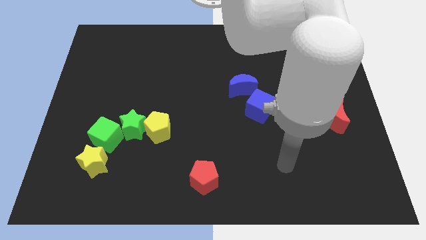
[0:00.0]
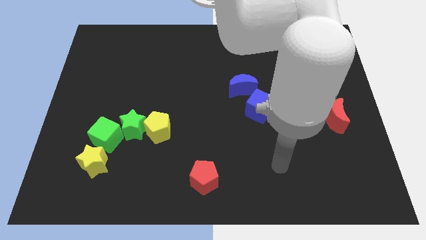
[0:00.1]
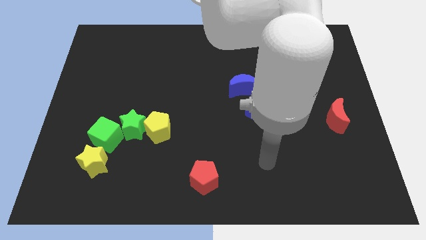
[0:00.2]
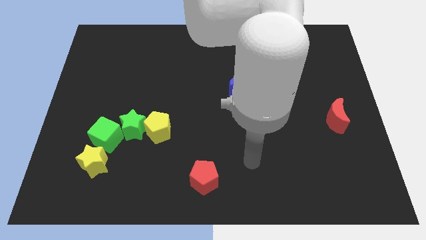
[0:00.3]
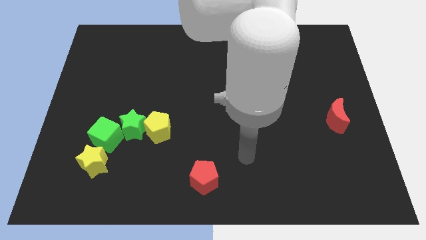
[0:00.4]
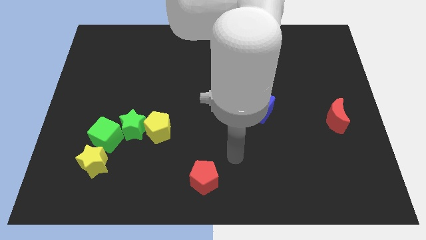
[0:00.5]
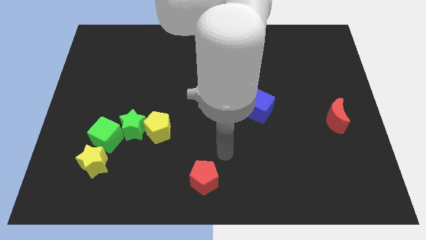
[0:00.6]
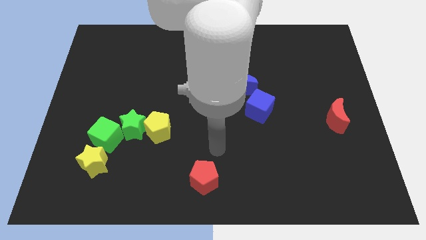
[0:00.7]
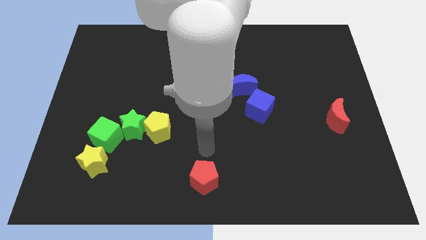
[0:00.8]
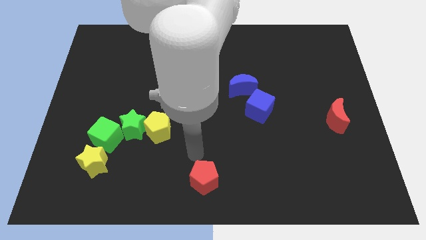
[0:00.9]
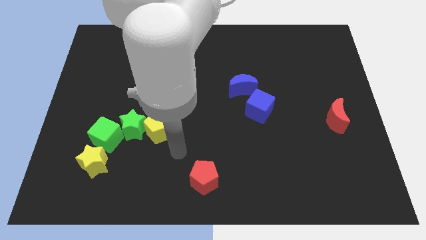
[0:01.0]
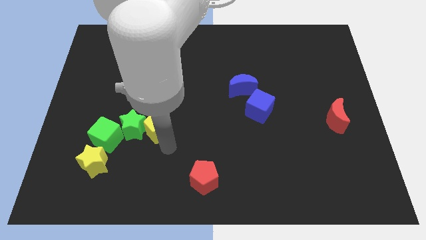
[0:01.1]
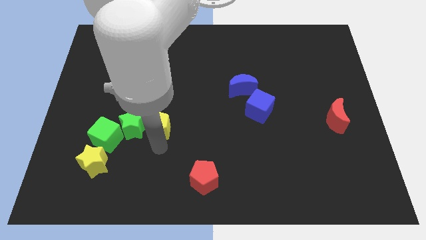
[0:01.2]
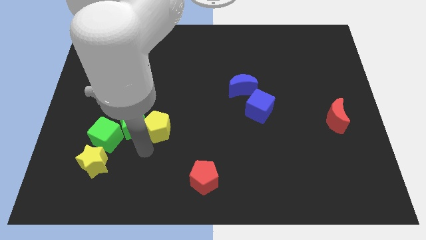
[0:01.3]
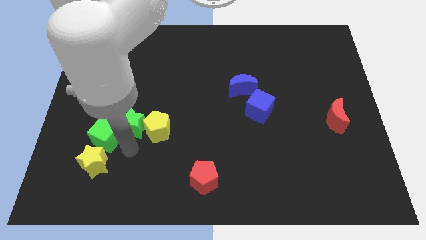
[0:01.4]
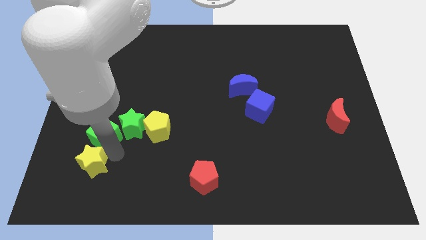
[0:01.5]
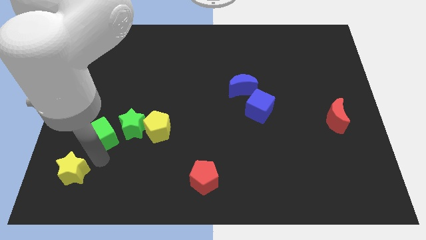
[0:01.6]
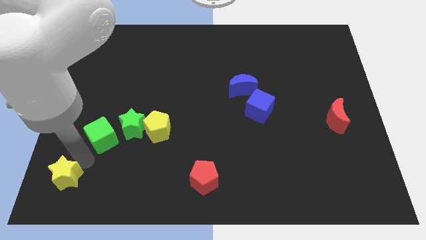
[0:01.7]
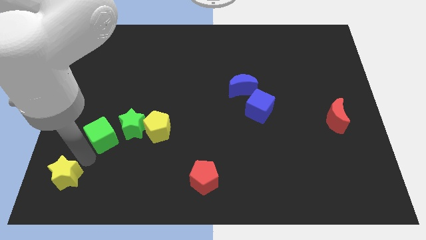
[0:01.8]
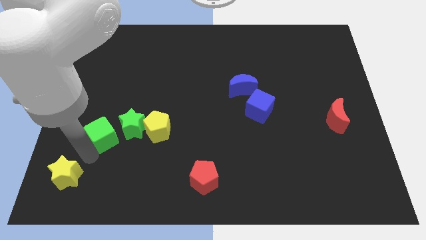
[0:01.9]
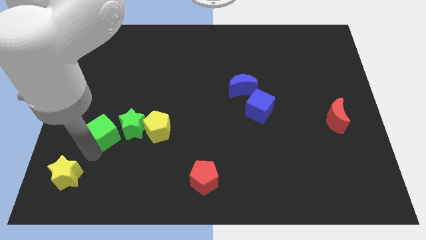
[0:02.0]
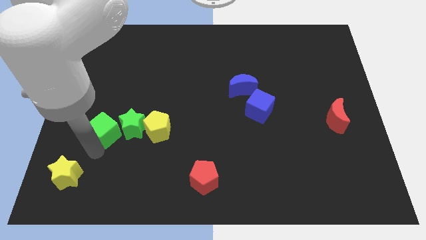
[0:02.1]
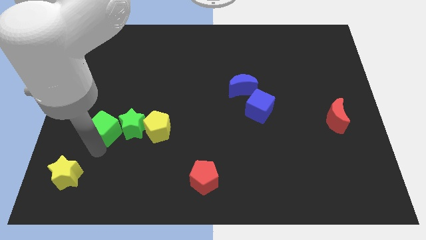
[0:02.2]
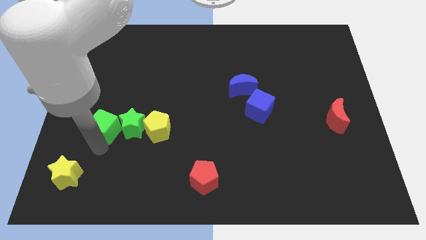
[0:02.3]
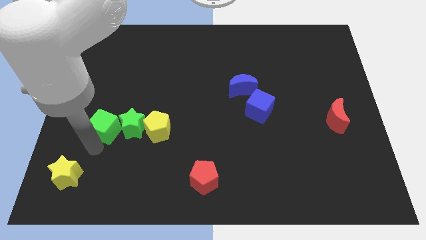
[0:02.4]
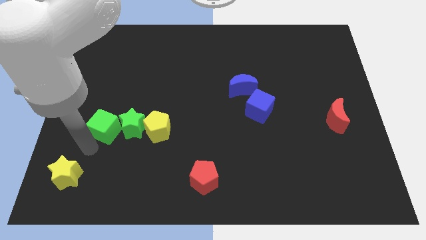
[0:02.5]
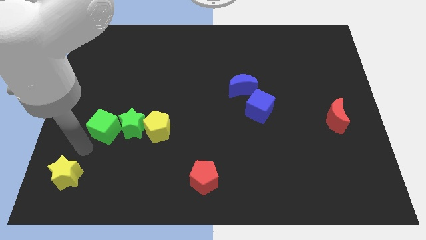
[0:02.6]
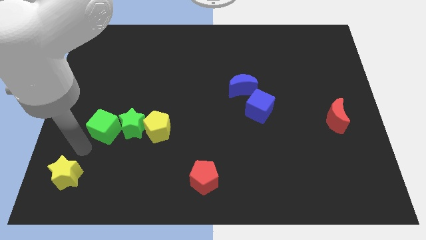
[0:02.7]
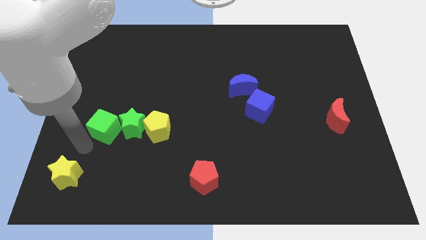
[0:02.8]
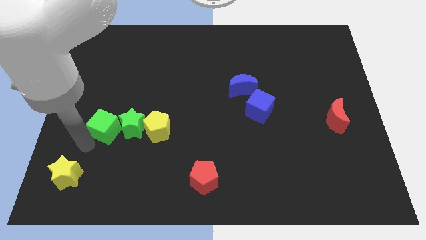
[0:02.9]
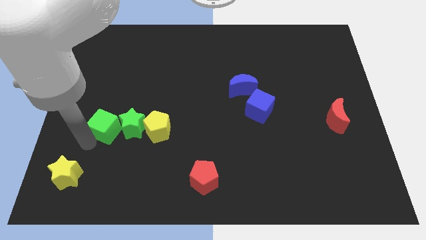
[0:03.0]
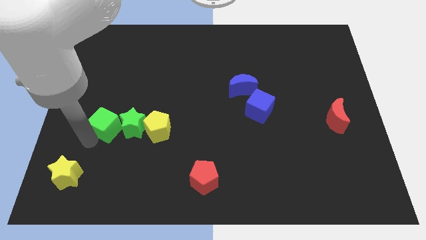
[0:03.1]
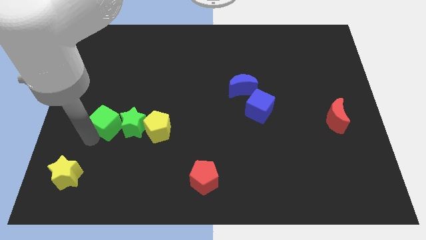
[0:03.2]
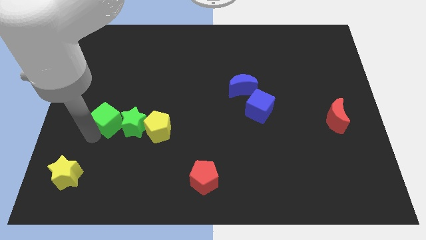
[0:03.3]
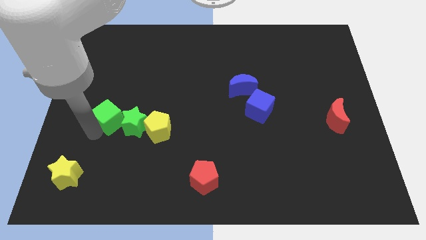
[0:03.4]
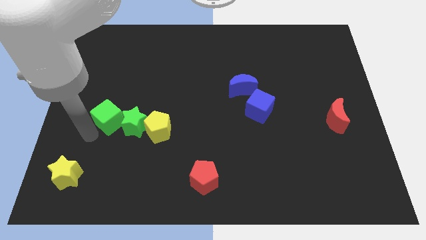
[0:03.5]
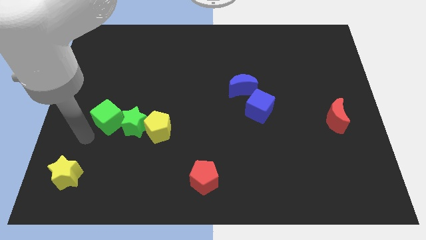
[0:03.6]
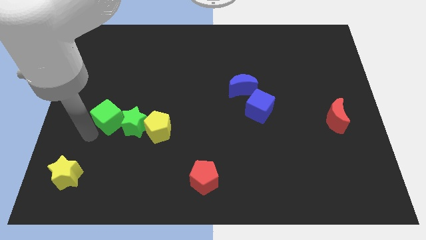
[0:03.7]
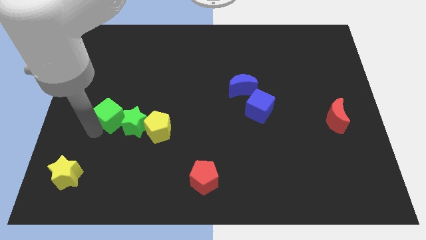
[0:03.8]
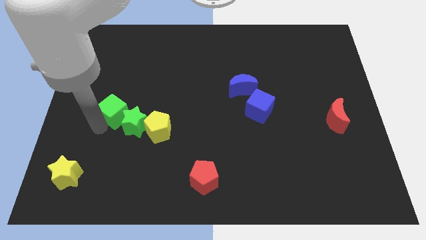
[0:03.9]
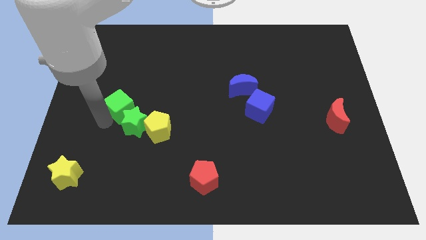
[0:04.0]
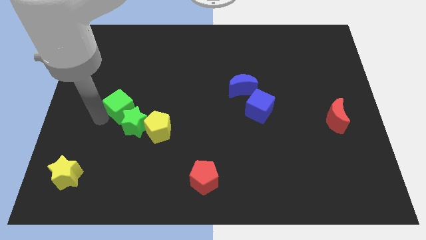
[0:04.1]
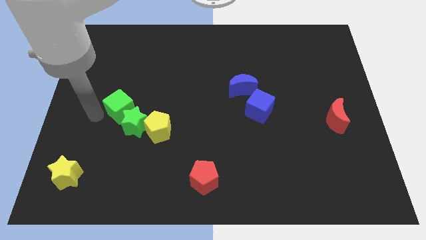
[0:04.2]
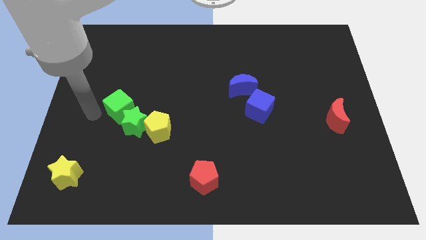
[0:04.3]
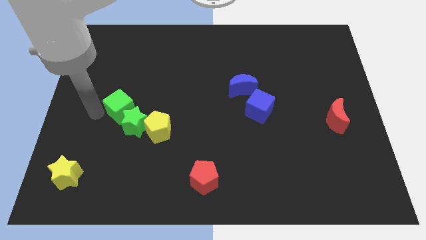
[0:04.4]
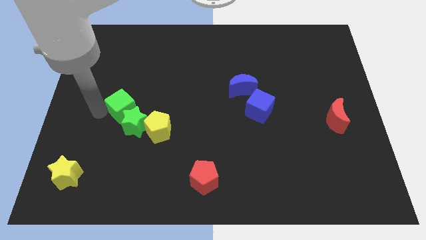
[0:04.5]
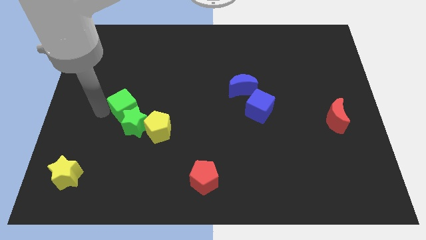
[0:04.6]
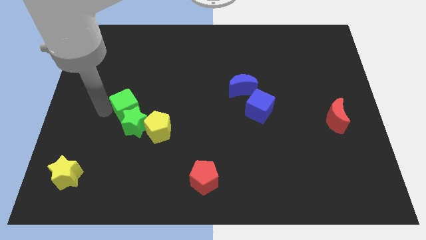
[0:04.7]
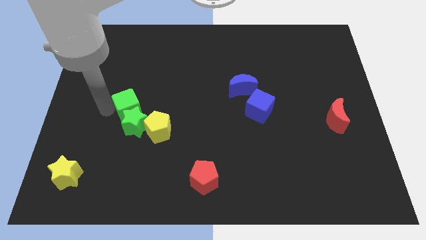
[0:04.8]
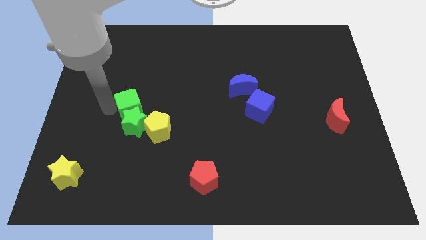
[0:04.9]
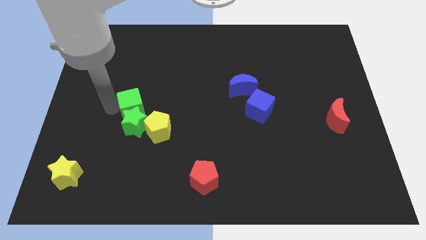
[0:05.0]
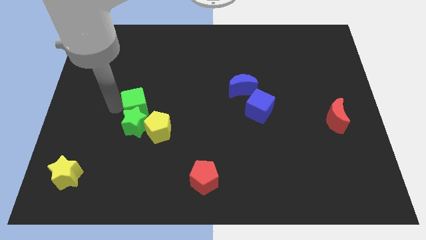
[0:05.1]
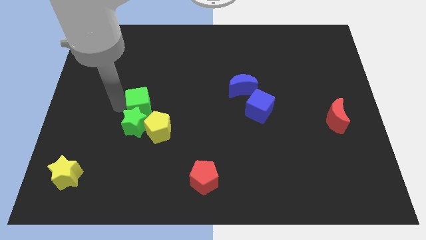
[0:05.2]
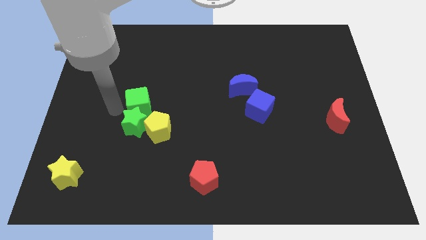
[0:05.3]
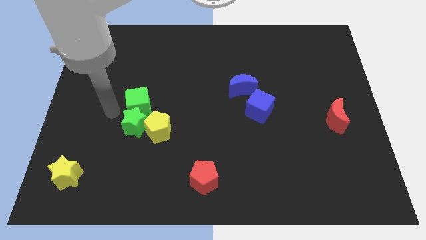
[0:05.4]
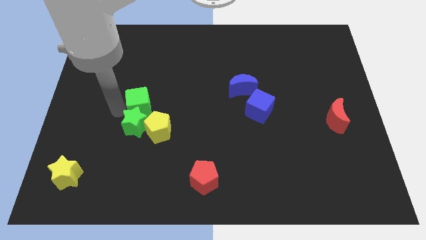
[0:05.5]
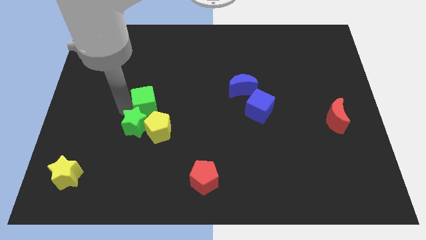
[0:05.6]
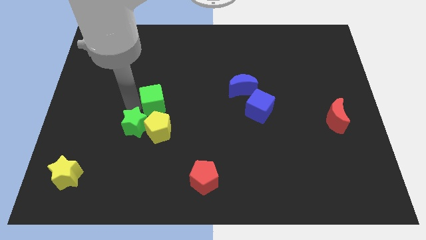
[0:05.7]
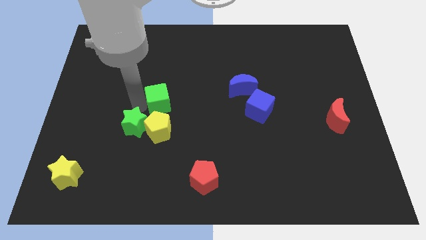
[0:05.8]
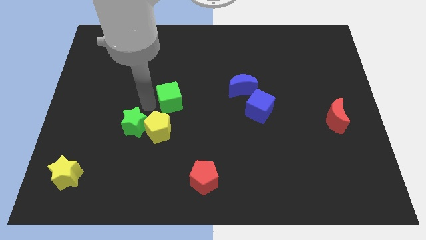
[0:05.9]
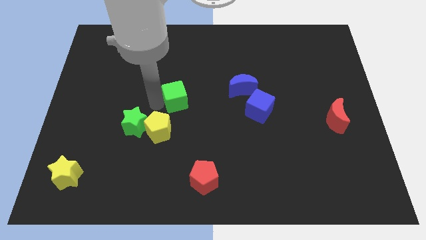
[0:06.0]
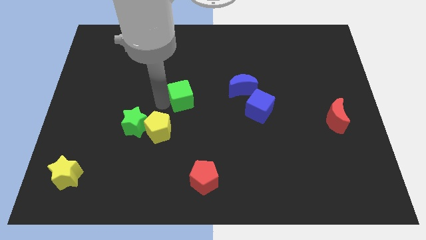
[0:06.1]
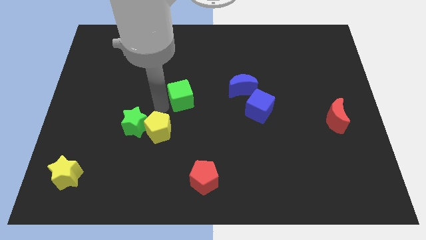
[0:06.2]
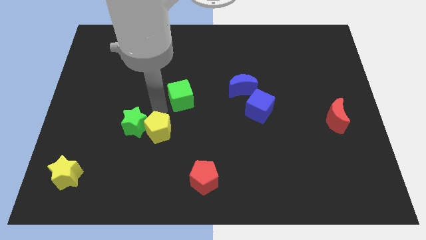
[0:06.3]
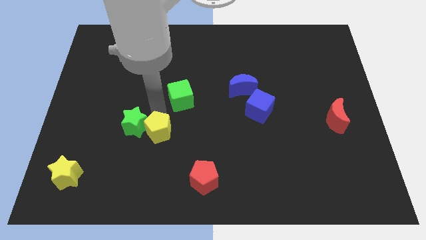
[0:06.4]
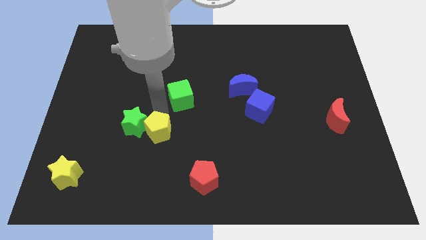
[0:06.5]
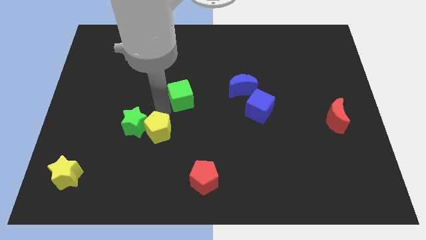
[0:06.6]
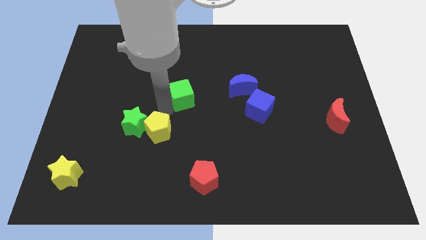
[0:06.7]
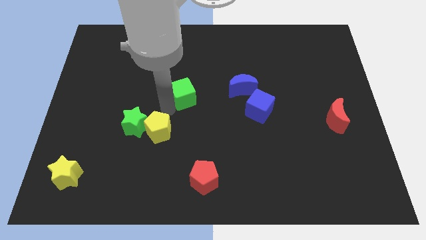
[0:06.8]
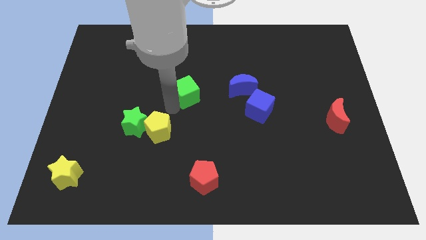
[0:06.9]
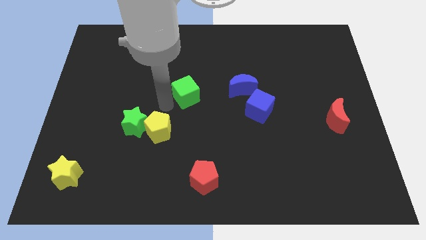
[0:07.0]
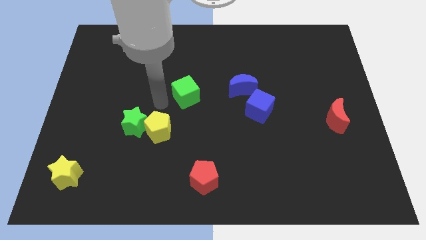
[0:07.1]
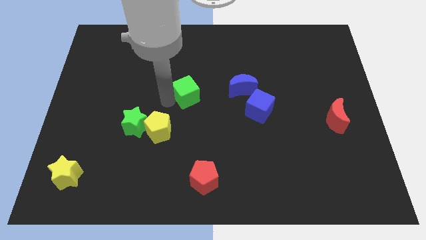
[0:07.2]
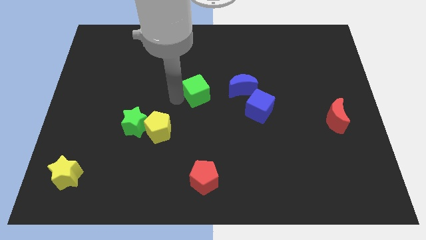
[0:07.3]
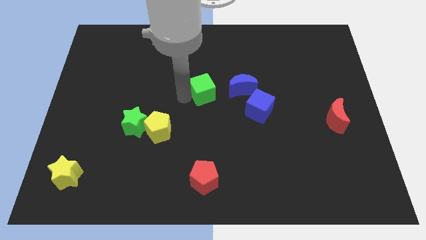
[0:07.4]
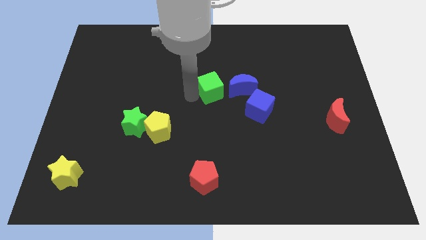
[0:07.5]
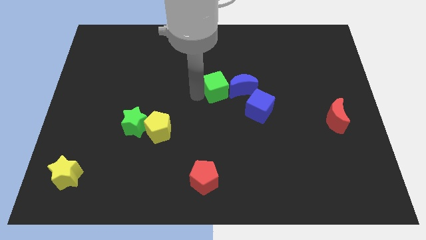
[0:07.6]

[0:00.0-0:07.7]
push the green cube diagonally up and to the left of the blue cube

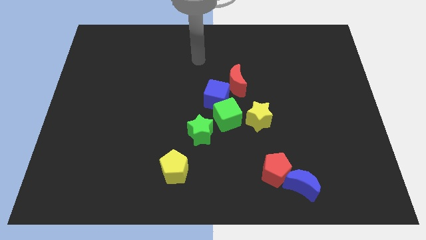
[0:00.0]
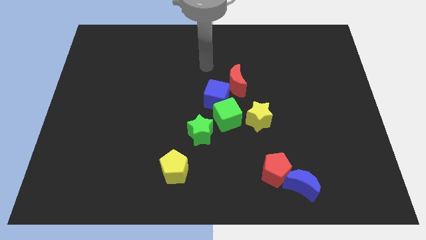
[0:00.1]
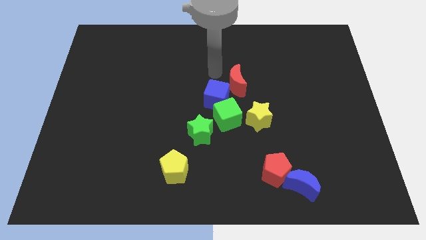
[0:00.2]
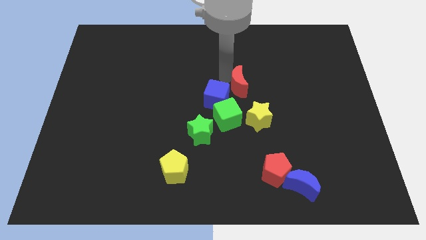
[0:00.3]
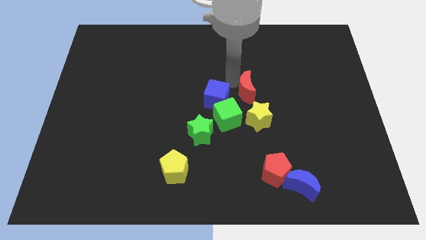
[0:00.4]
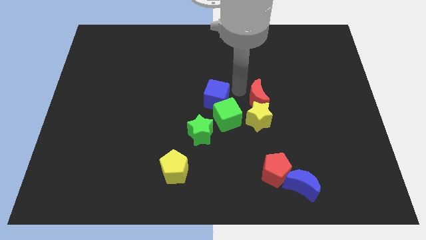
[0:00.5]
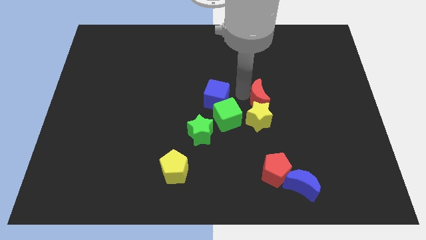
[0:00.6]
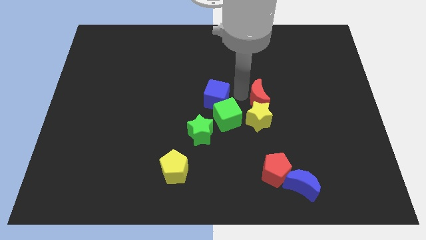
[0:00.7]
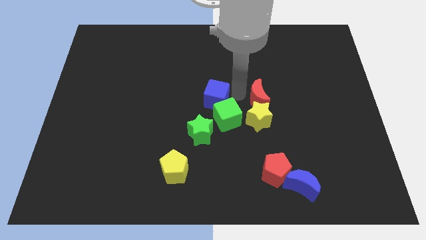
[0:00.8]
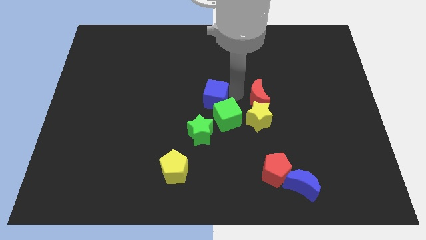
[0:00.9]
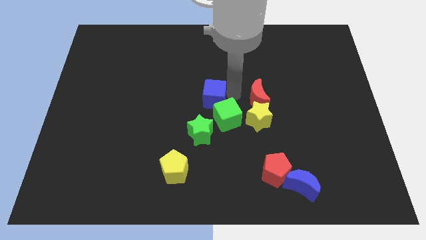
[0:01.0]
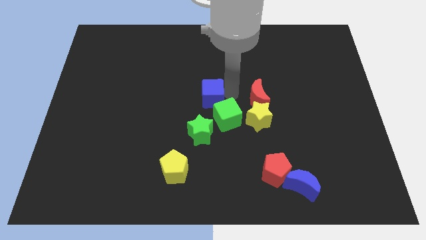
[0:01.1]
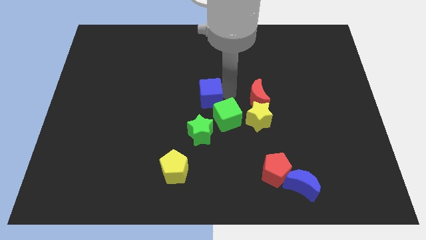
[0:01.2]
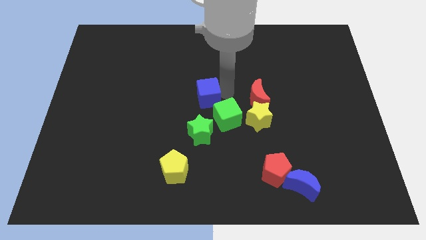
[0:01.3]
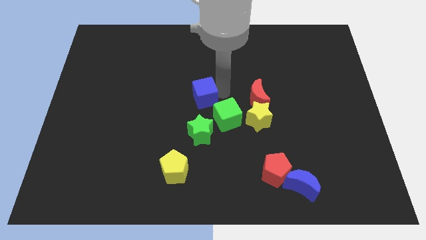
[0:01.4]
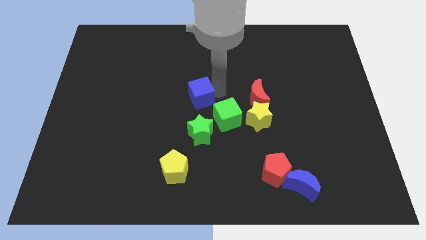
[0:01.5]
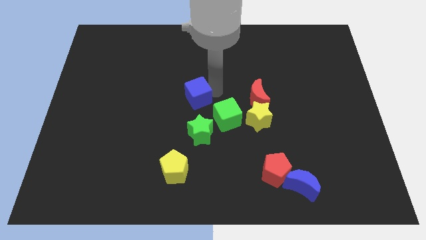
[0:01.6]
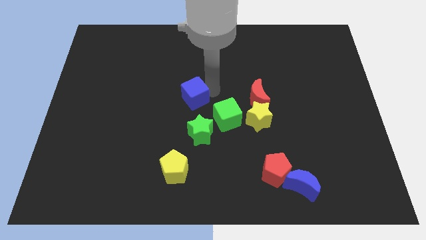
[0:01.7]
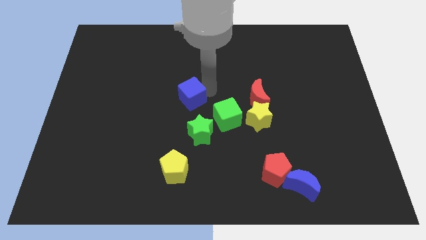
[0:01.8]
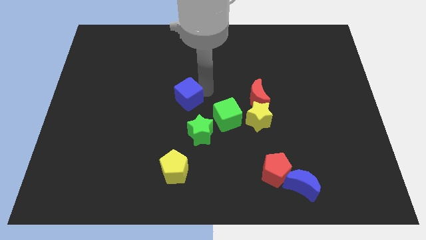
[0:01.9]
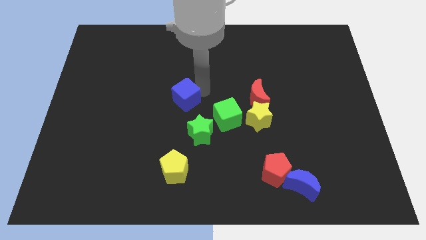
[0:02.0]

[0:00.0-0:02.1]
move the blue cube to the top left side of the green star
